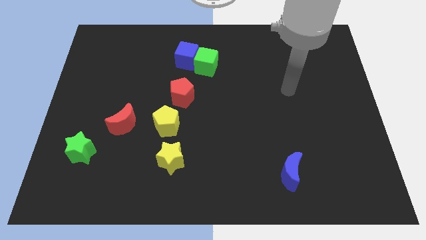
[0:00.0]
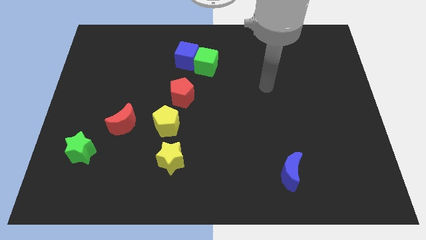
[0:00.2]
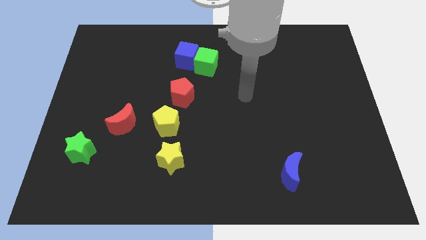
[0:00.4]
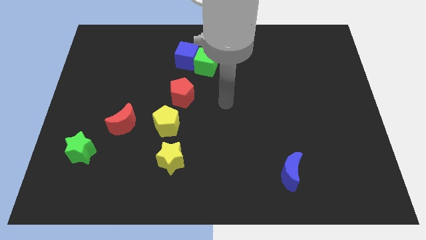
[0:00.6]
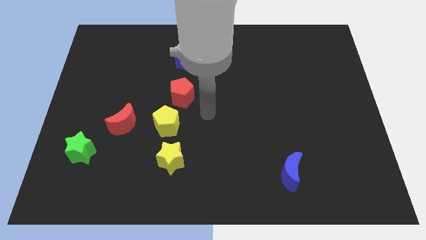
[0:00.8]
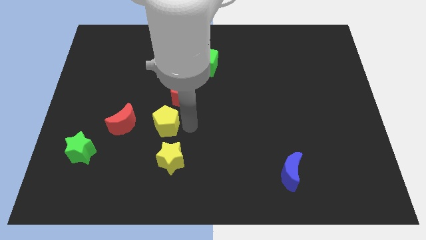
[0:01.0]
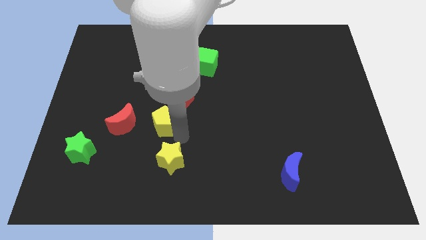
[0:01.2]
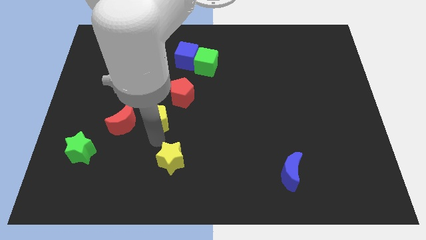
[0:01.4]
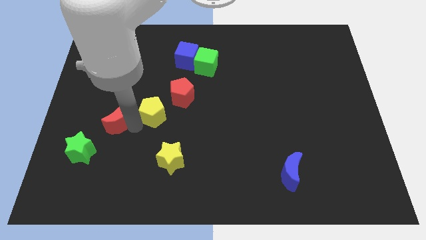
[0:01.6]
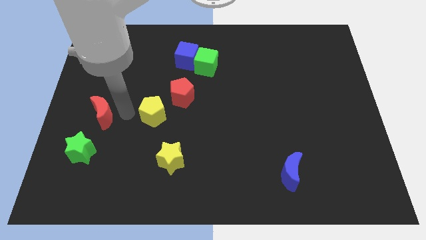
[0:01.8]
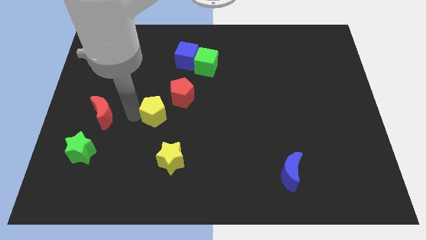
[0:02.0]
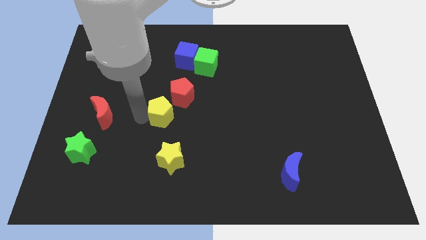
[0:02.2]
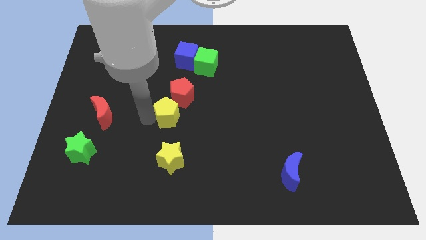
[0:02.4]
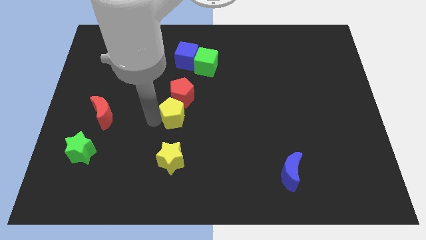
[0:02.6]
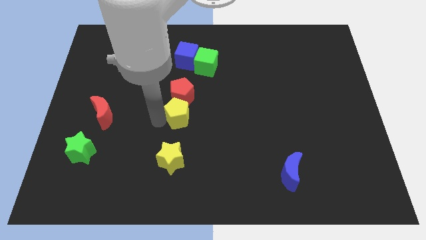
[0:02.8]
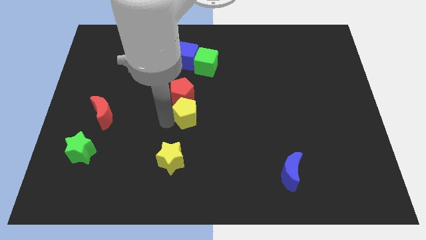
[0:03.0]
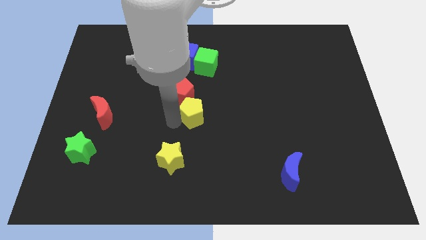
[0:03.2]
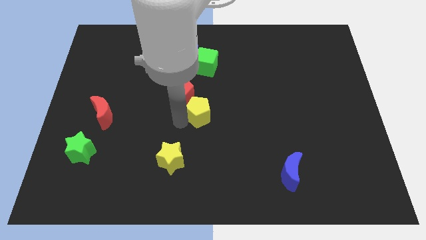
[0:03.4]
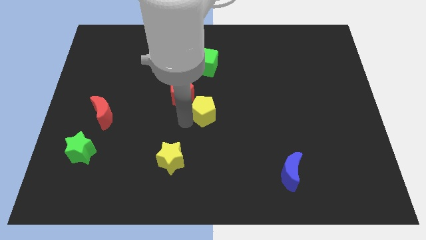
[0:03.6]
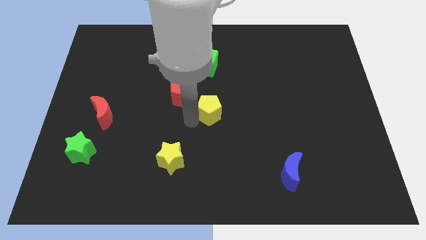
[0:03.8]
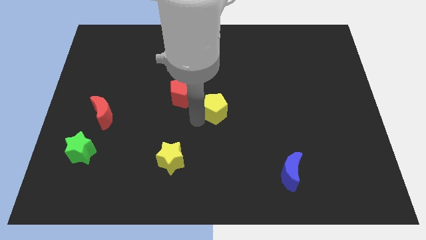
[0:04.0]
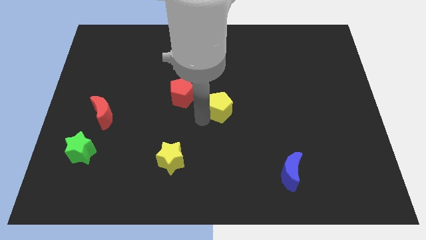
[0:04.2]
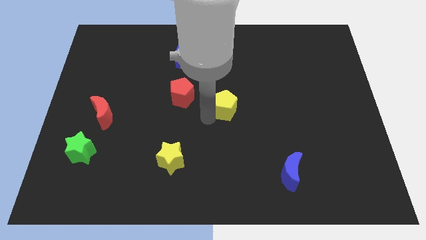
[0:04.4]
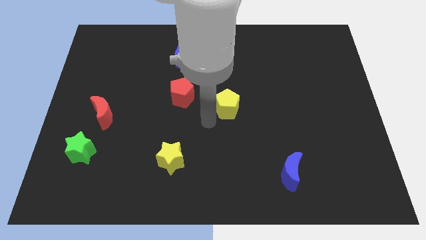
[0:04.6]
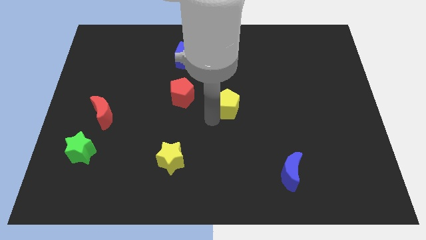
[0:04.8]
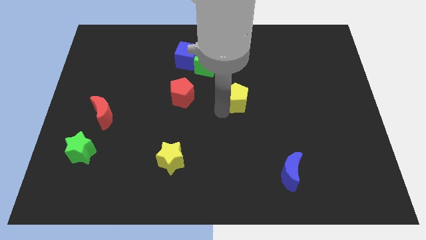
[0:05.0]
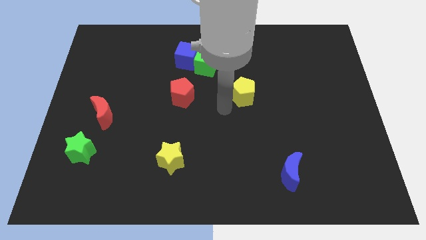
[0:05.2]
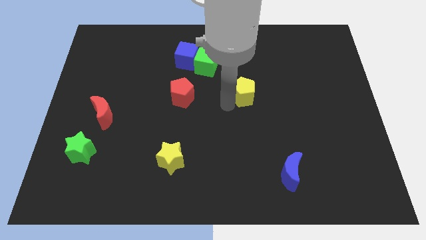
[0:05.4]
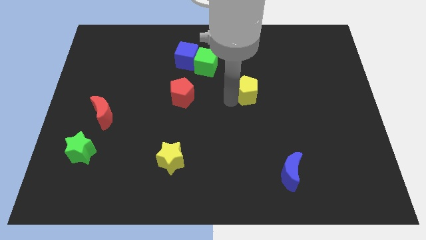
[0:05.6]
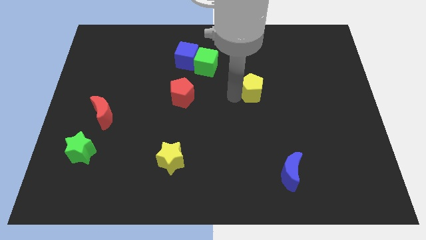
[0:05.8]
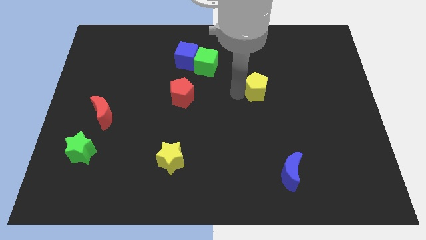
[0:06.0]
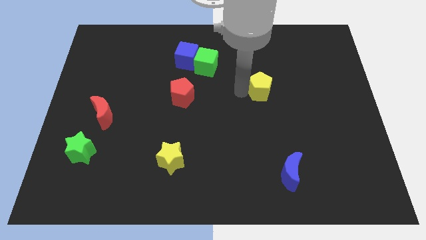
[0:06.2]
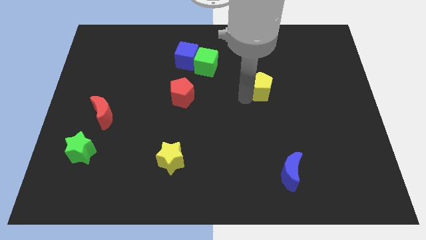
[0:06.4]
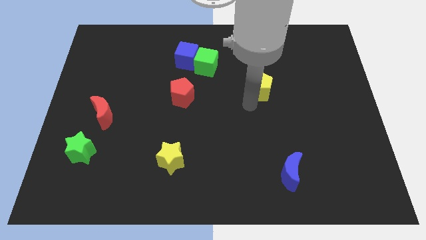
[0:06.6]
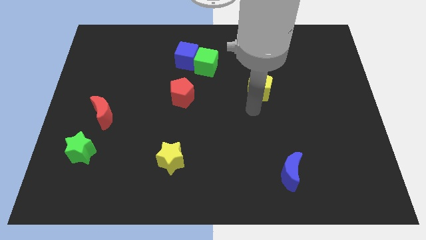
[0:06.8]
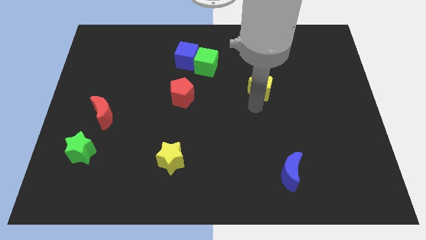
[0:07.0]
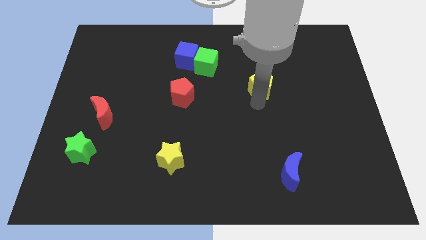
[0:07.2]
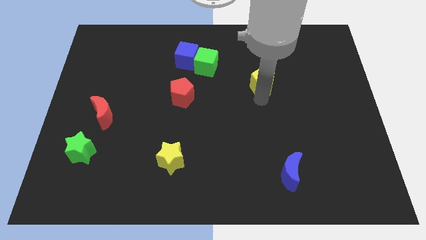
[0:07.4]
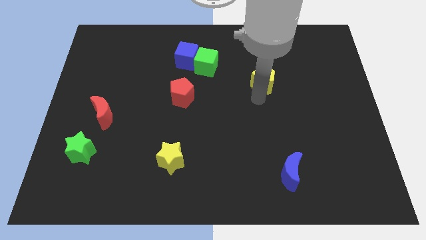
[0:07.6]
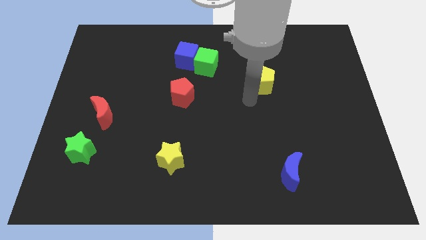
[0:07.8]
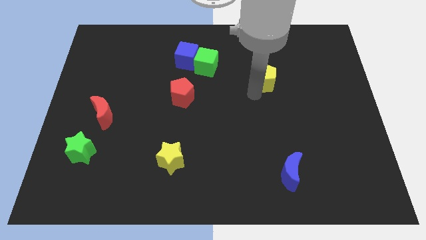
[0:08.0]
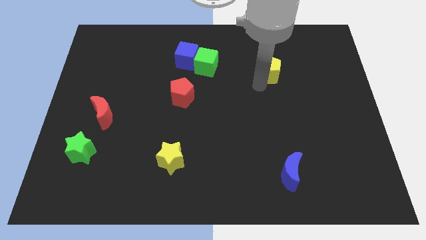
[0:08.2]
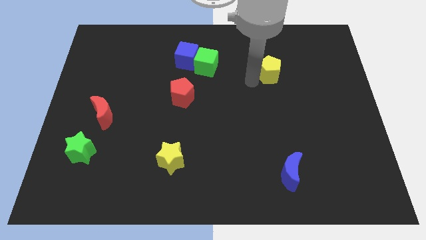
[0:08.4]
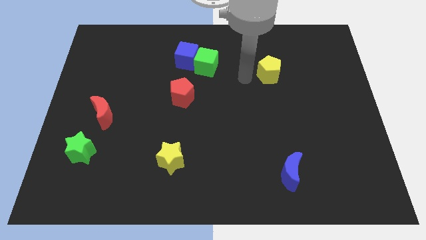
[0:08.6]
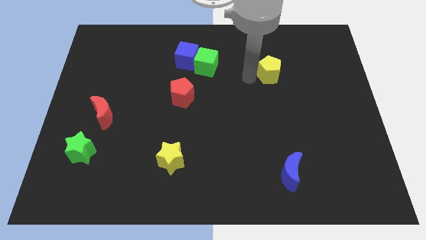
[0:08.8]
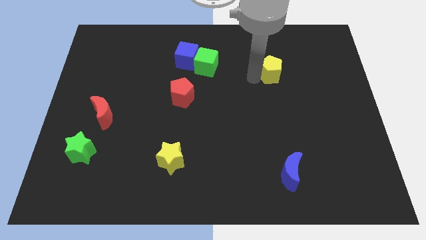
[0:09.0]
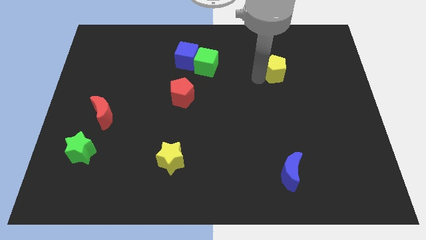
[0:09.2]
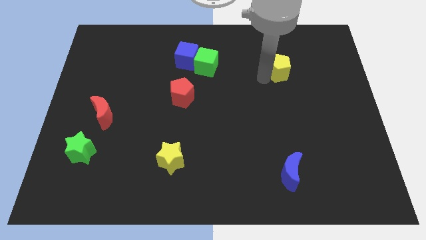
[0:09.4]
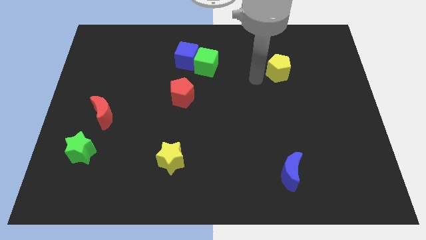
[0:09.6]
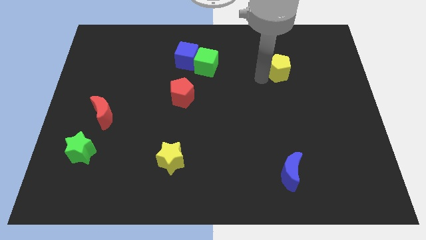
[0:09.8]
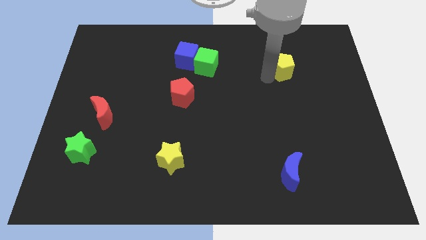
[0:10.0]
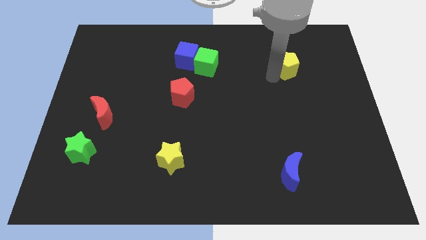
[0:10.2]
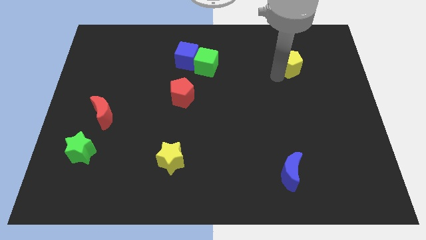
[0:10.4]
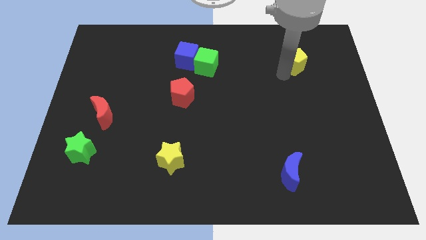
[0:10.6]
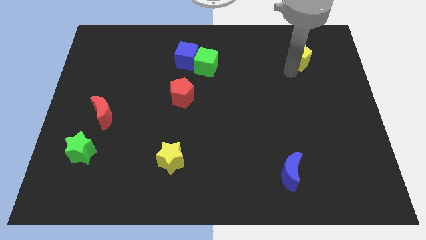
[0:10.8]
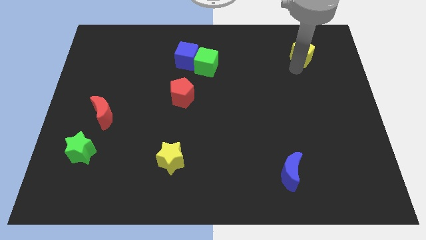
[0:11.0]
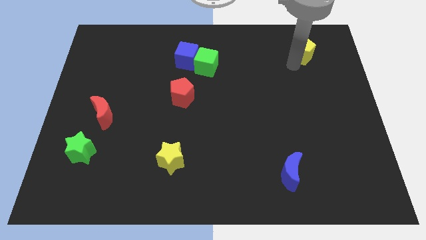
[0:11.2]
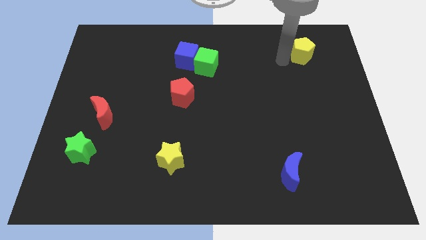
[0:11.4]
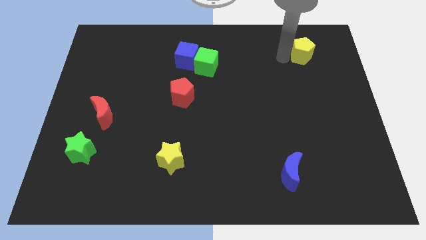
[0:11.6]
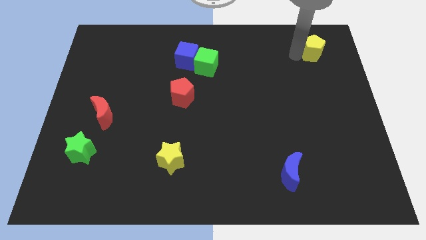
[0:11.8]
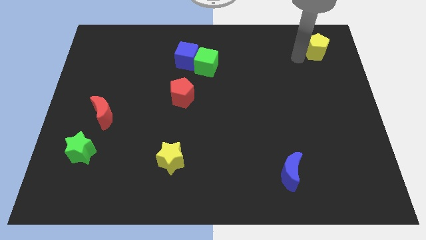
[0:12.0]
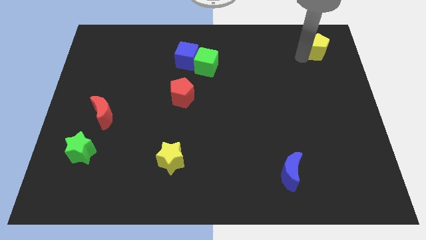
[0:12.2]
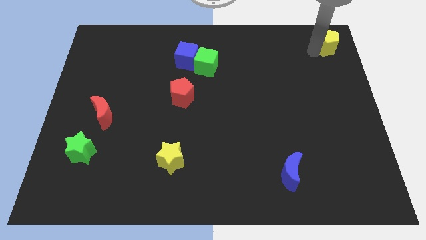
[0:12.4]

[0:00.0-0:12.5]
push the yellow pentagon to the top right of the board

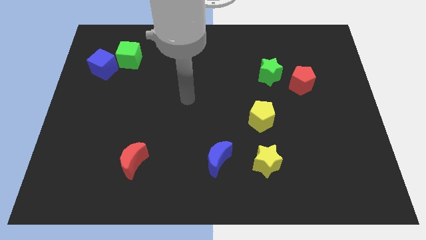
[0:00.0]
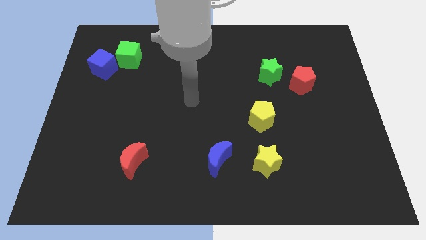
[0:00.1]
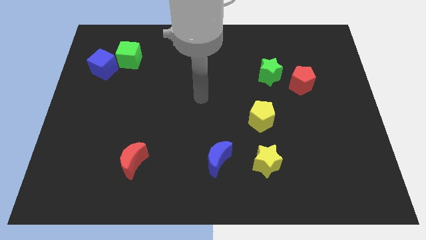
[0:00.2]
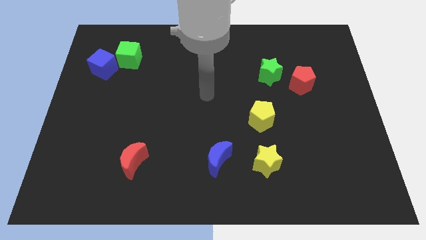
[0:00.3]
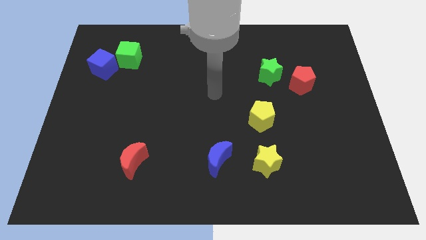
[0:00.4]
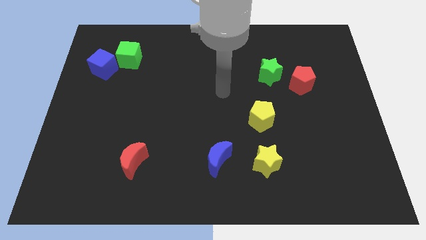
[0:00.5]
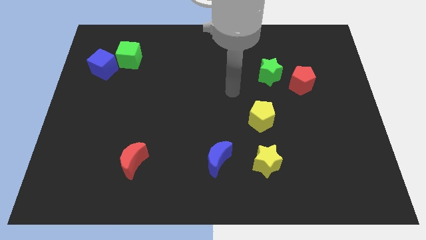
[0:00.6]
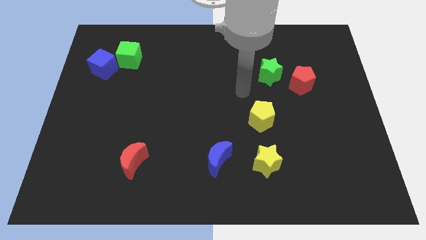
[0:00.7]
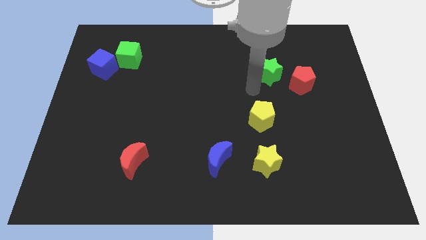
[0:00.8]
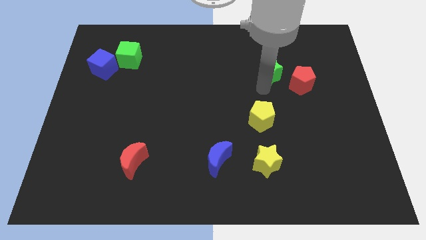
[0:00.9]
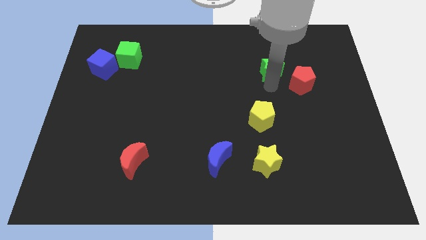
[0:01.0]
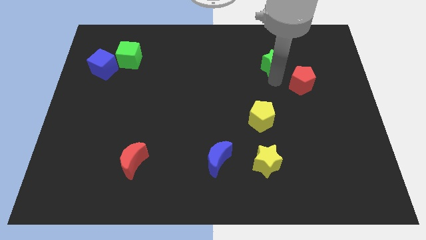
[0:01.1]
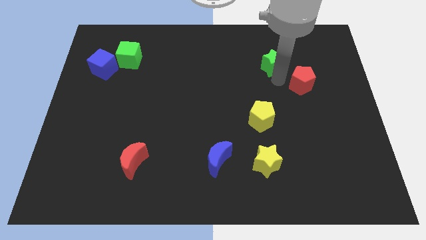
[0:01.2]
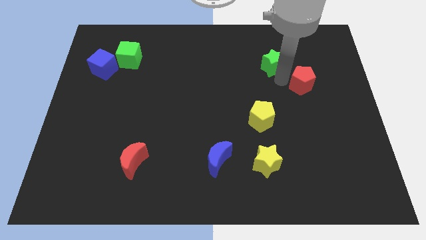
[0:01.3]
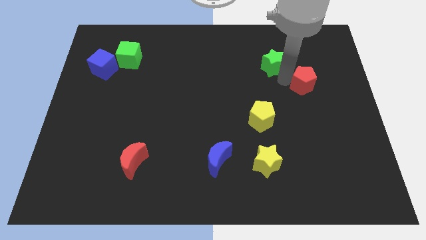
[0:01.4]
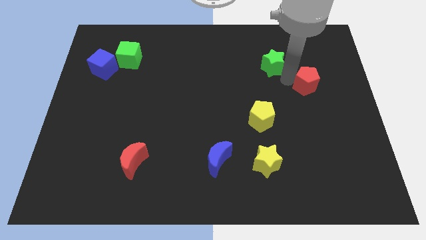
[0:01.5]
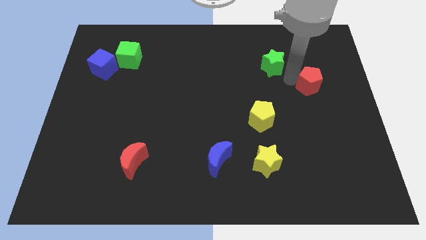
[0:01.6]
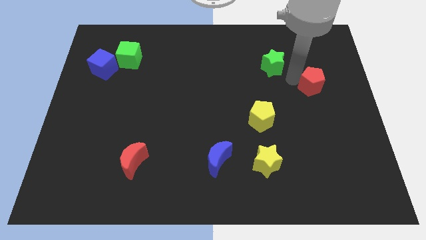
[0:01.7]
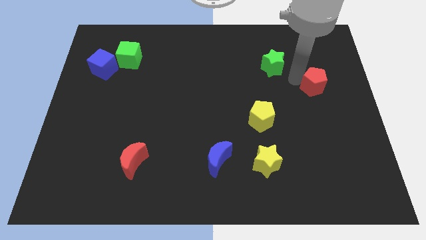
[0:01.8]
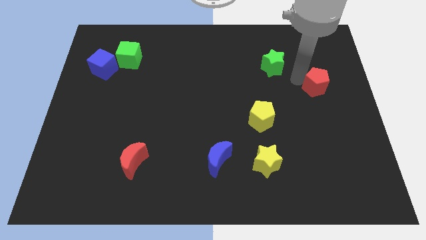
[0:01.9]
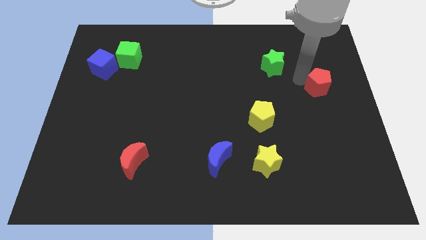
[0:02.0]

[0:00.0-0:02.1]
put the red pentagon to the center right
